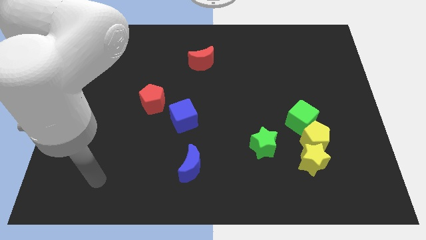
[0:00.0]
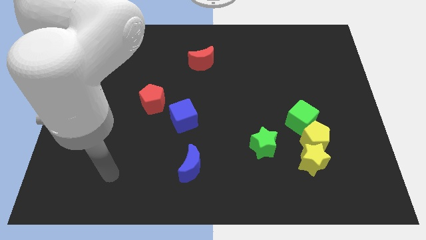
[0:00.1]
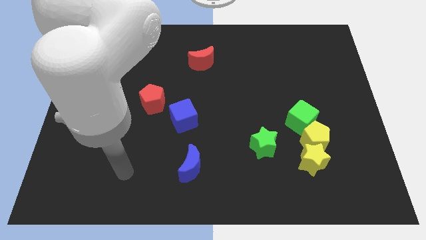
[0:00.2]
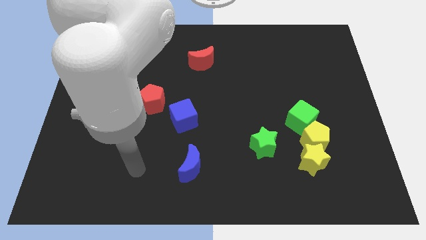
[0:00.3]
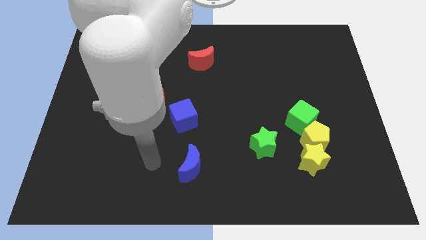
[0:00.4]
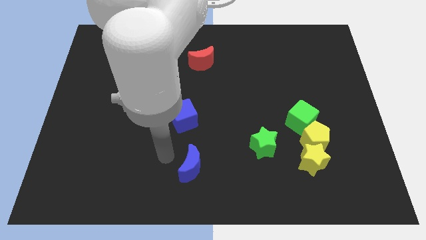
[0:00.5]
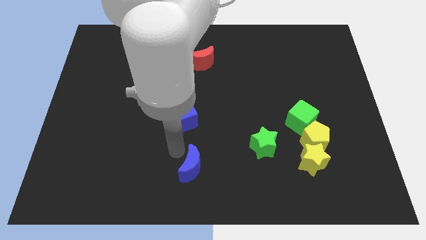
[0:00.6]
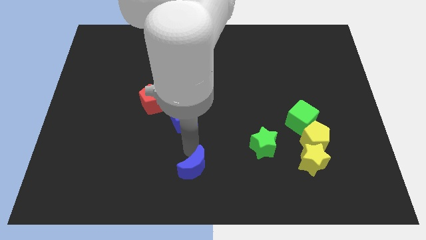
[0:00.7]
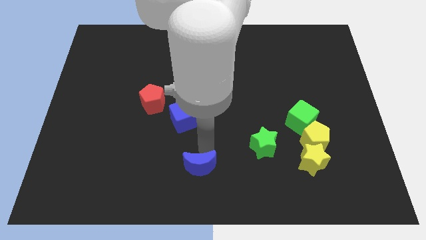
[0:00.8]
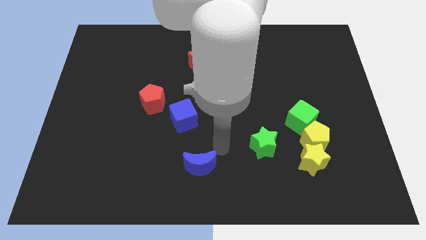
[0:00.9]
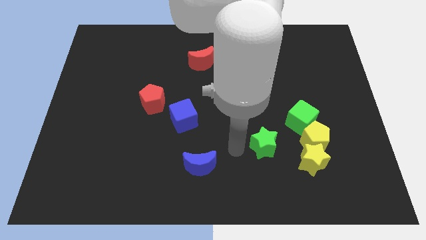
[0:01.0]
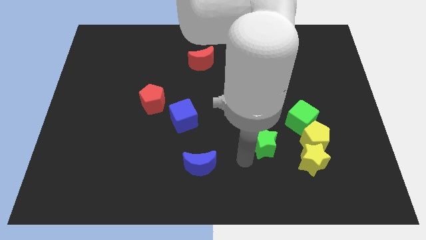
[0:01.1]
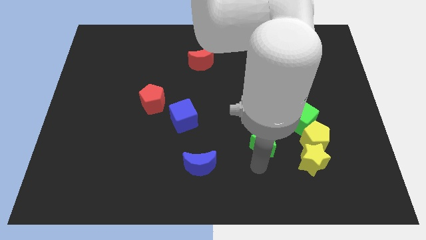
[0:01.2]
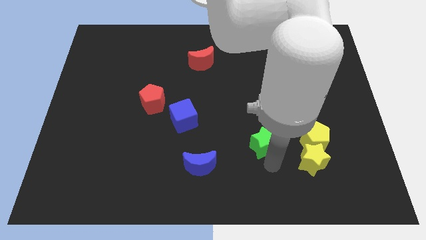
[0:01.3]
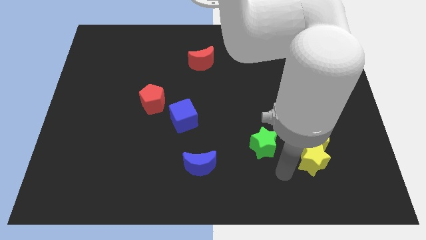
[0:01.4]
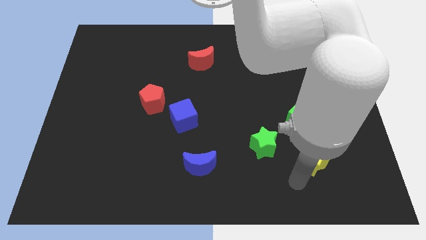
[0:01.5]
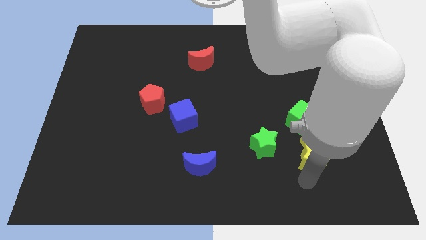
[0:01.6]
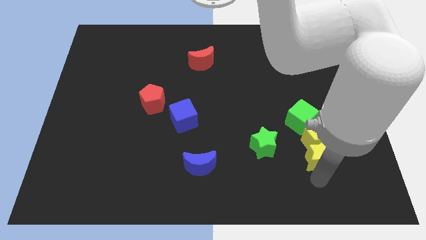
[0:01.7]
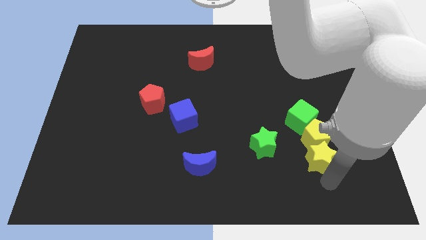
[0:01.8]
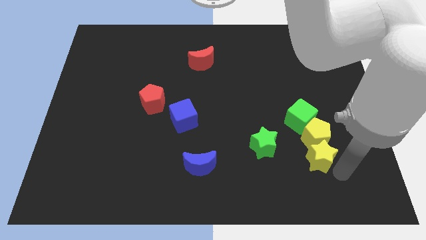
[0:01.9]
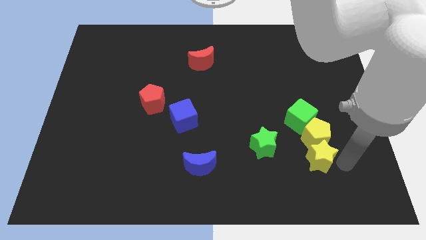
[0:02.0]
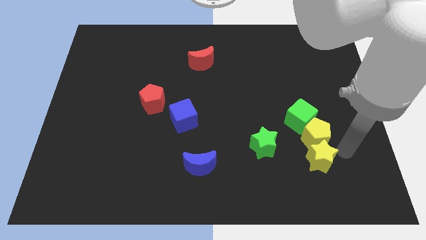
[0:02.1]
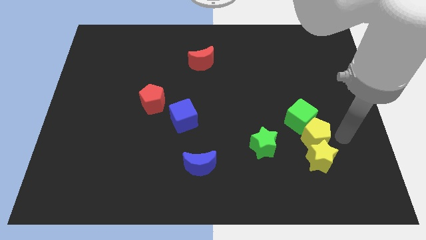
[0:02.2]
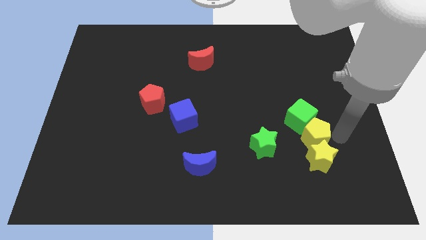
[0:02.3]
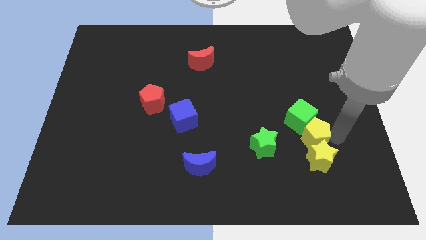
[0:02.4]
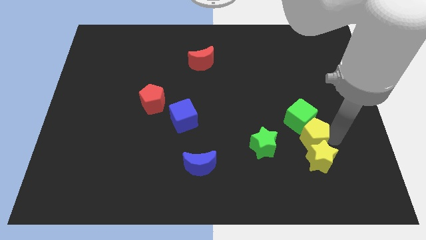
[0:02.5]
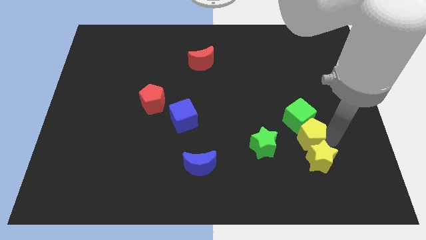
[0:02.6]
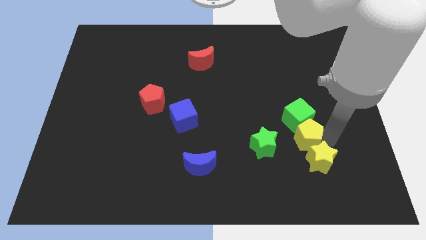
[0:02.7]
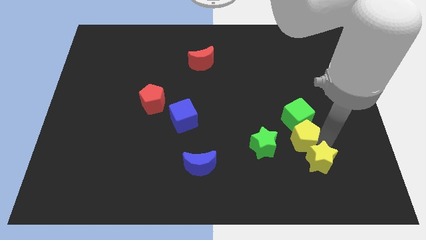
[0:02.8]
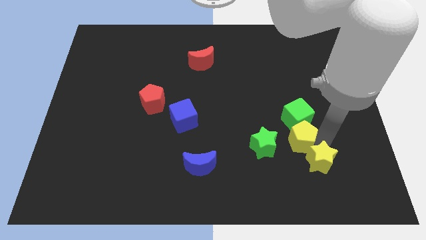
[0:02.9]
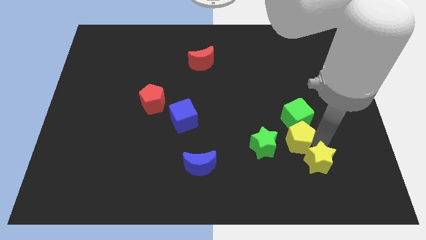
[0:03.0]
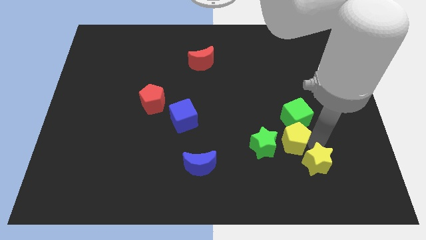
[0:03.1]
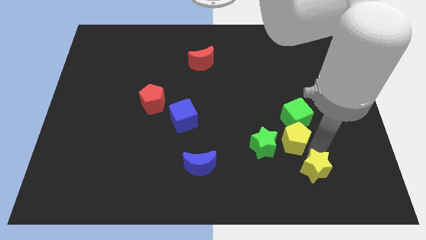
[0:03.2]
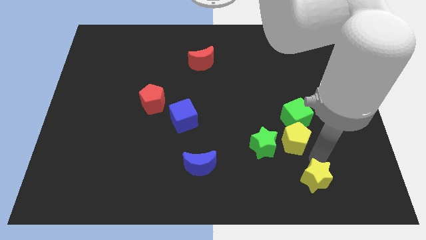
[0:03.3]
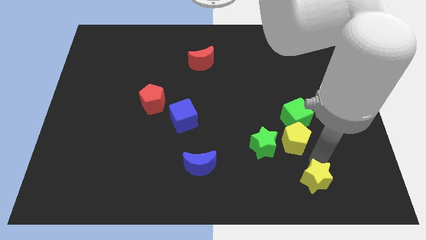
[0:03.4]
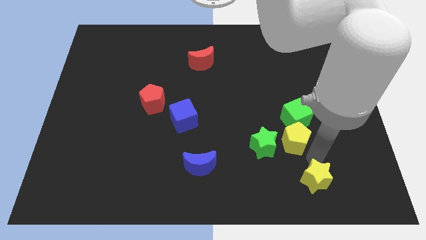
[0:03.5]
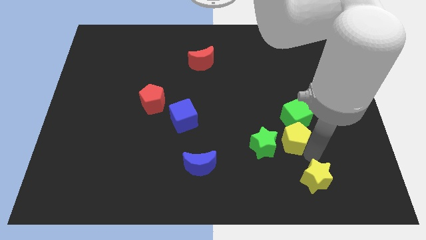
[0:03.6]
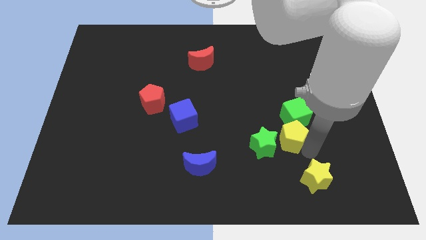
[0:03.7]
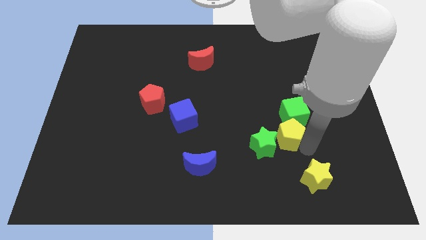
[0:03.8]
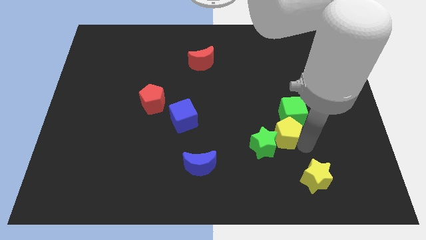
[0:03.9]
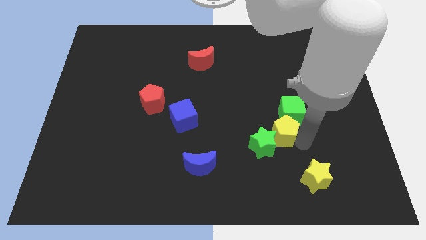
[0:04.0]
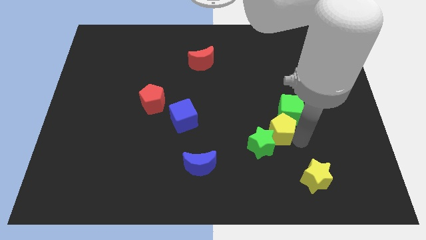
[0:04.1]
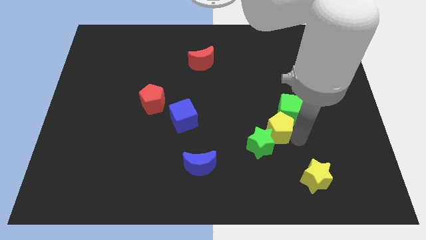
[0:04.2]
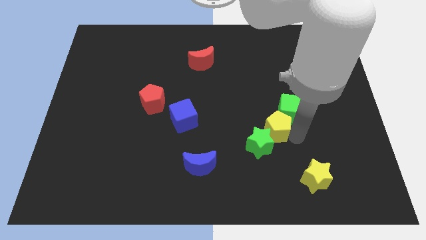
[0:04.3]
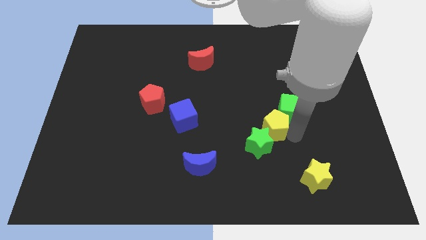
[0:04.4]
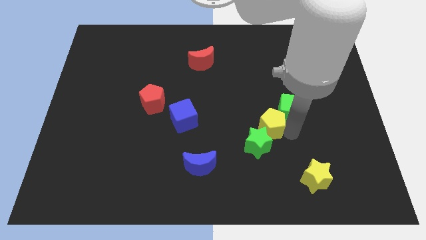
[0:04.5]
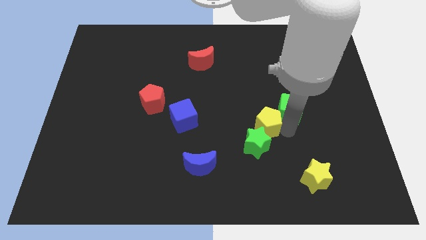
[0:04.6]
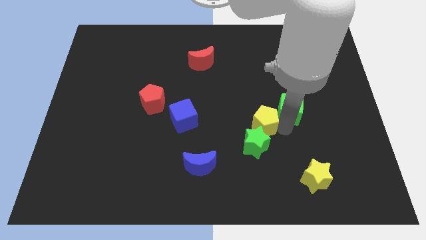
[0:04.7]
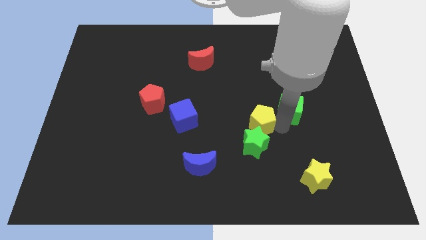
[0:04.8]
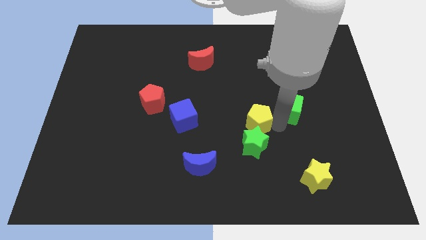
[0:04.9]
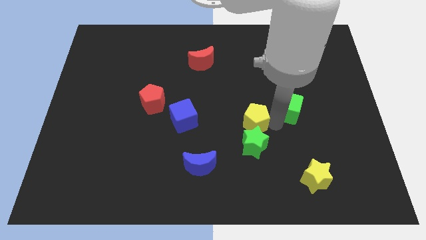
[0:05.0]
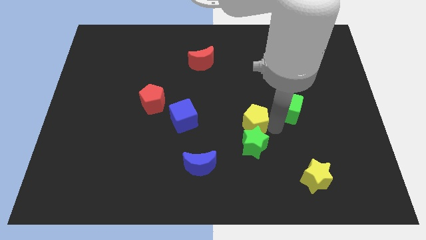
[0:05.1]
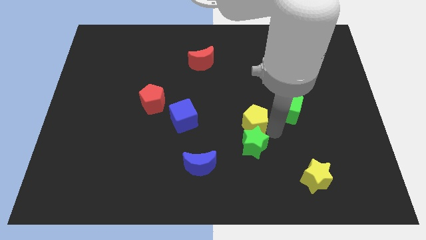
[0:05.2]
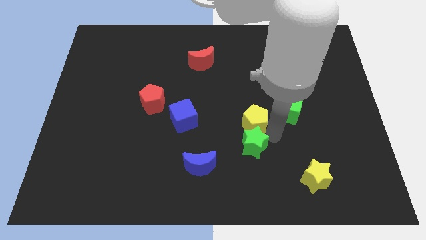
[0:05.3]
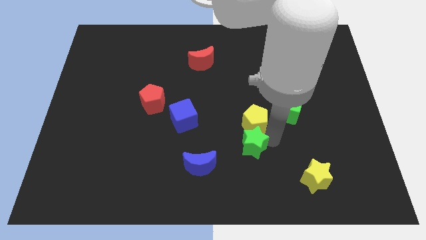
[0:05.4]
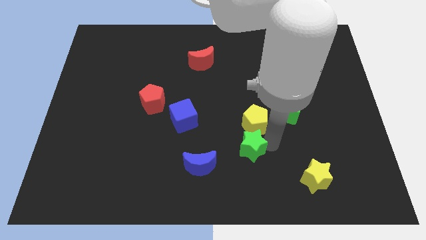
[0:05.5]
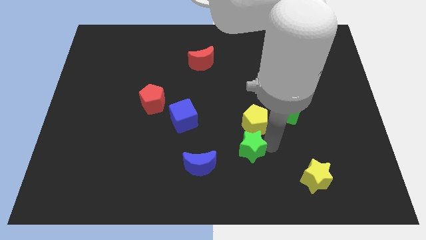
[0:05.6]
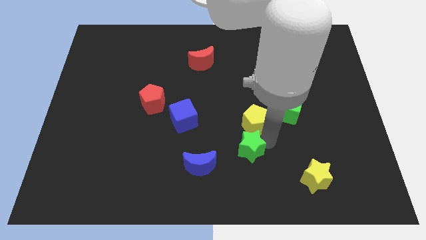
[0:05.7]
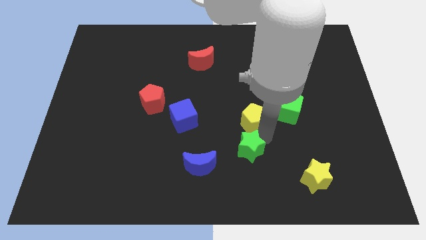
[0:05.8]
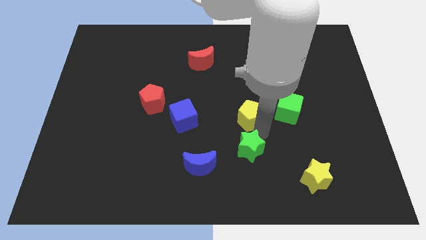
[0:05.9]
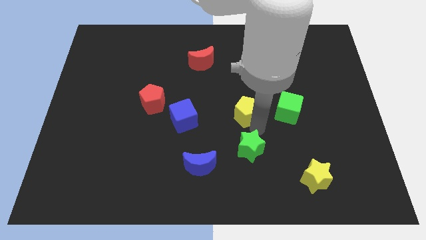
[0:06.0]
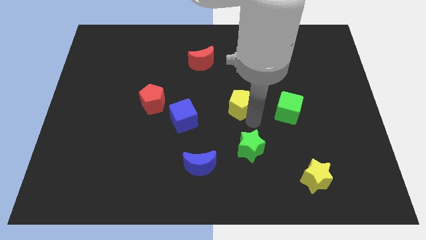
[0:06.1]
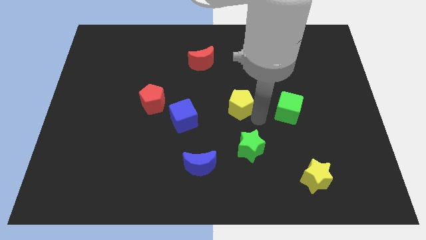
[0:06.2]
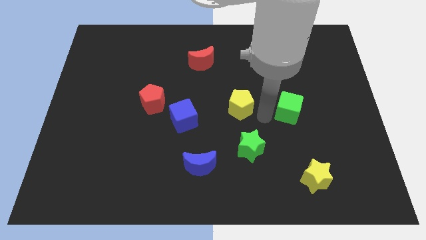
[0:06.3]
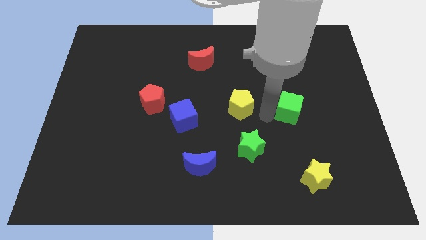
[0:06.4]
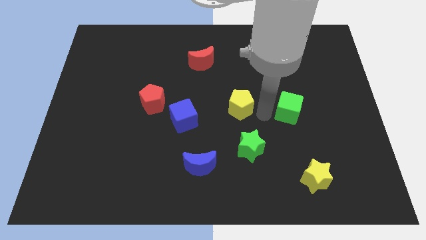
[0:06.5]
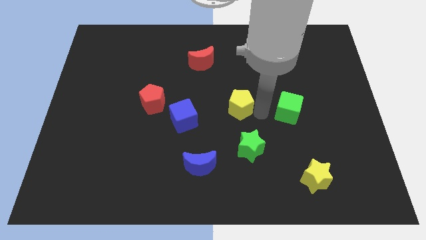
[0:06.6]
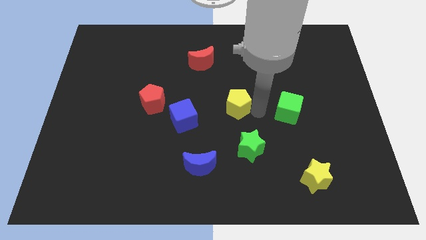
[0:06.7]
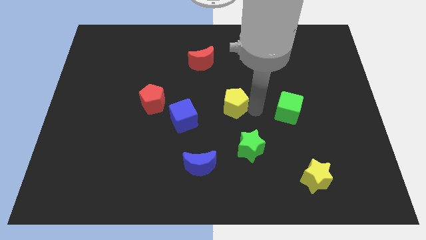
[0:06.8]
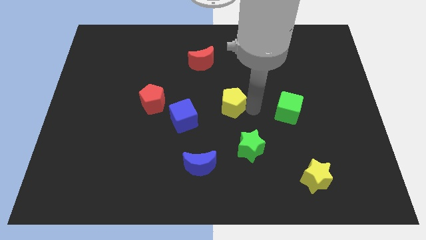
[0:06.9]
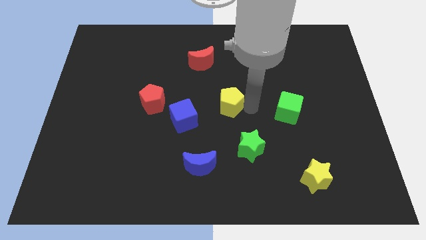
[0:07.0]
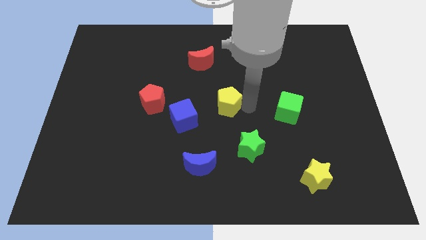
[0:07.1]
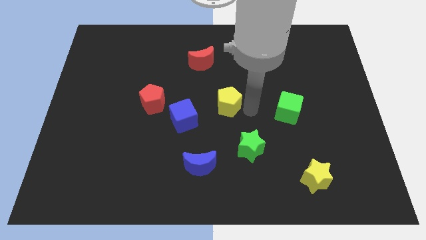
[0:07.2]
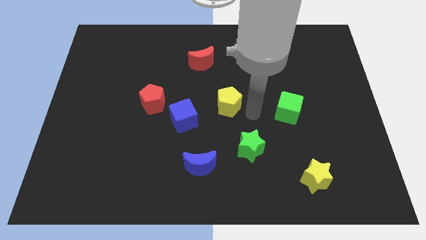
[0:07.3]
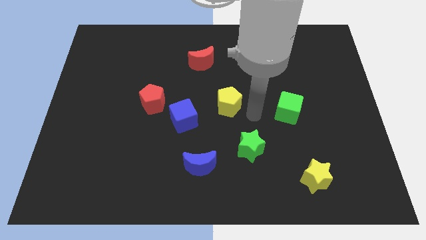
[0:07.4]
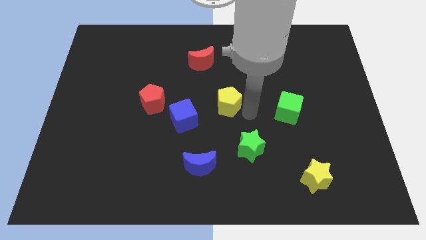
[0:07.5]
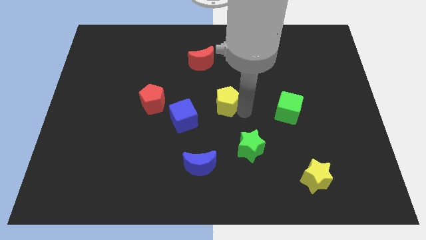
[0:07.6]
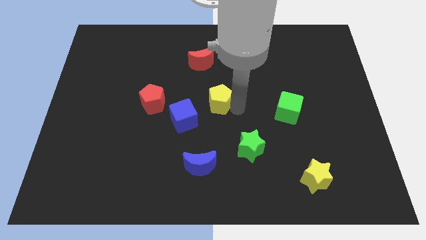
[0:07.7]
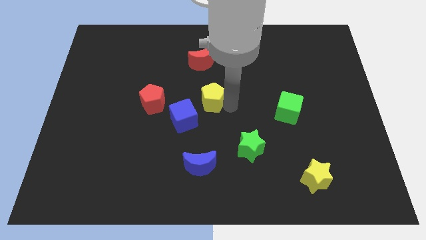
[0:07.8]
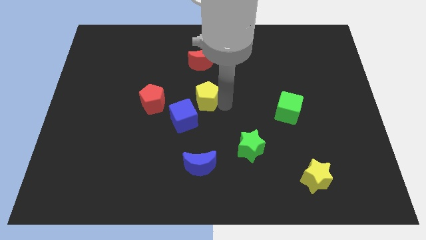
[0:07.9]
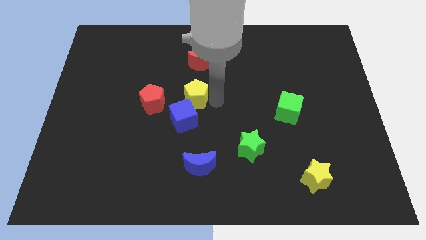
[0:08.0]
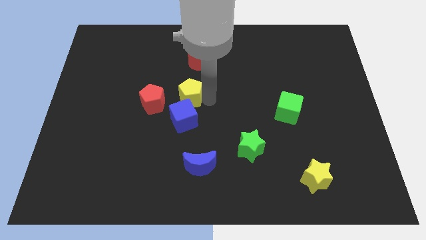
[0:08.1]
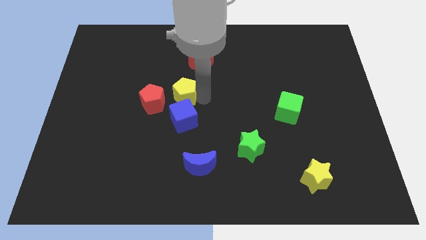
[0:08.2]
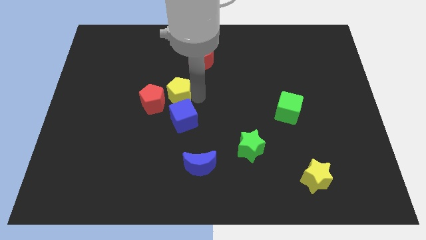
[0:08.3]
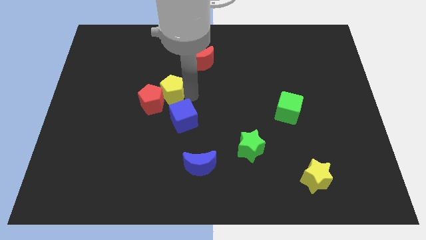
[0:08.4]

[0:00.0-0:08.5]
slide the yellow pentagon next to the red pentagon
